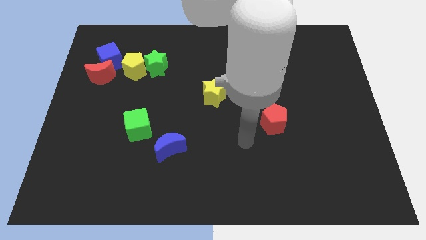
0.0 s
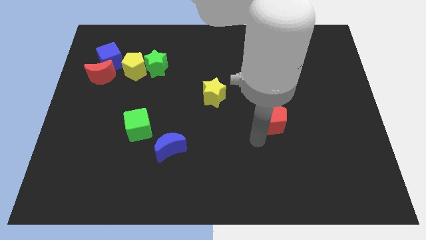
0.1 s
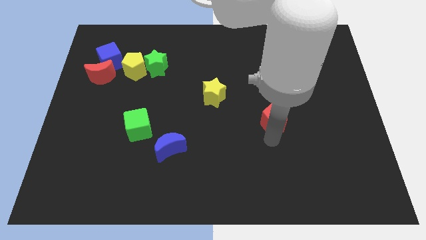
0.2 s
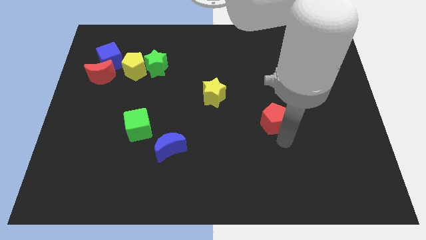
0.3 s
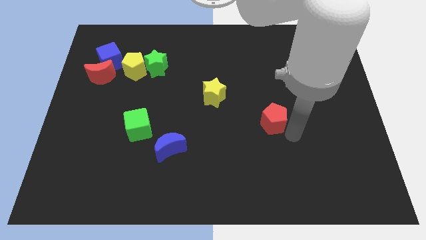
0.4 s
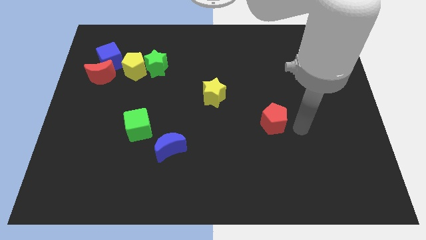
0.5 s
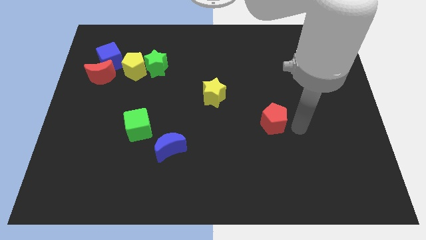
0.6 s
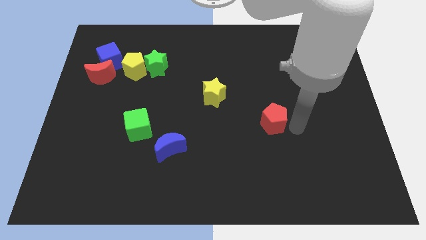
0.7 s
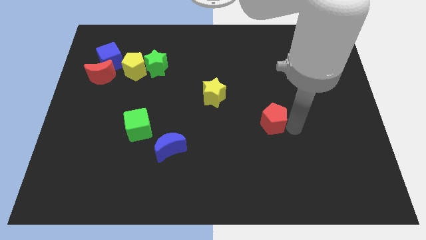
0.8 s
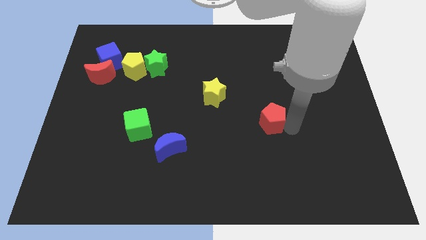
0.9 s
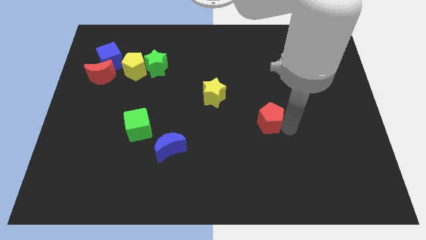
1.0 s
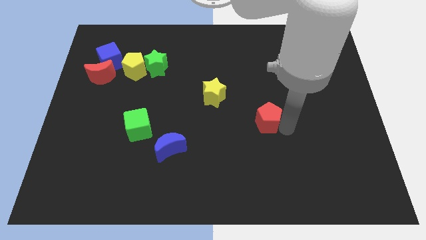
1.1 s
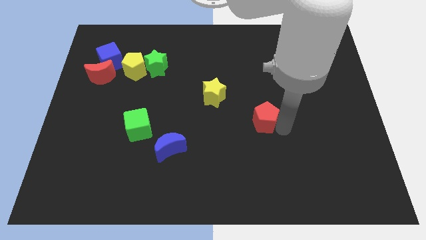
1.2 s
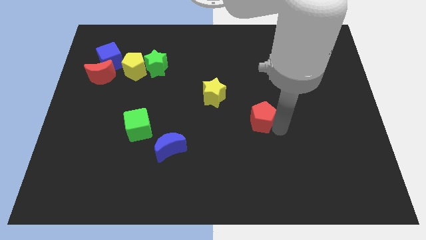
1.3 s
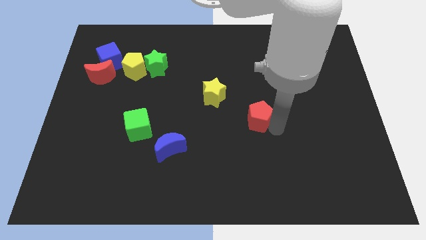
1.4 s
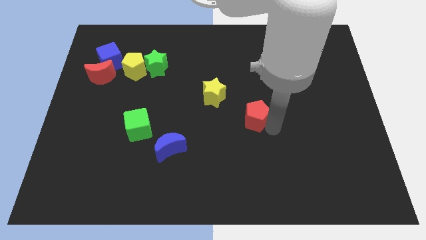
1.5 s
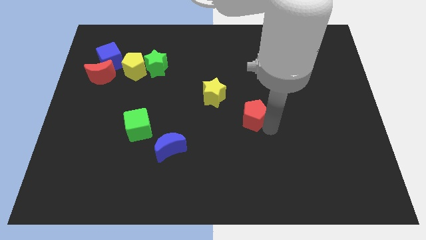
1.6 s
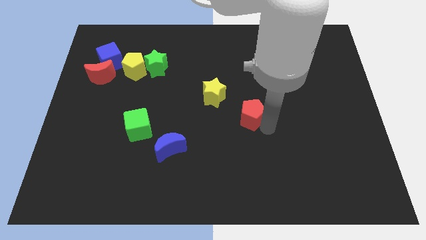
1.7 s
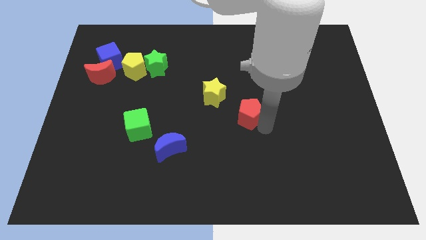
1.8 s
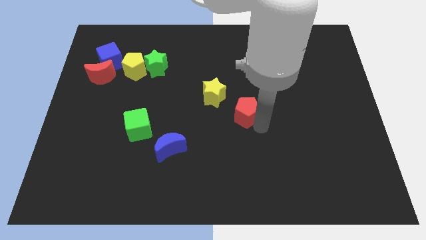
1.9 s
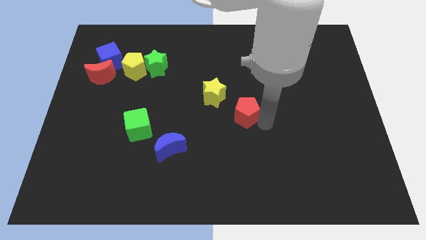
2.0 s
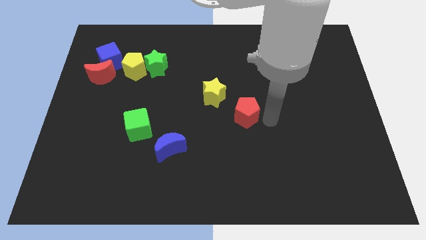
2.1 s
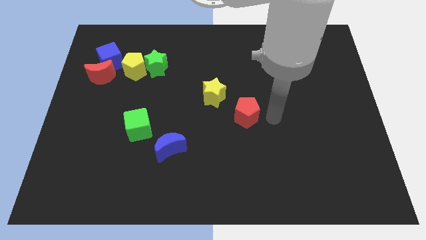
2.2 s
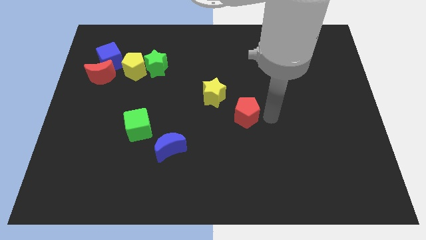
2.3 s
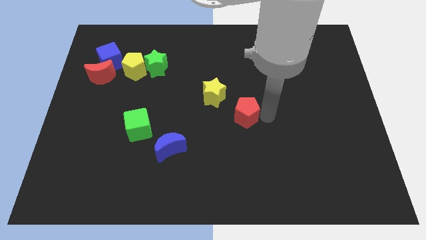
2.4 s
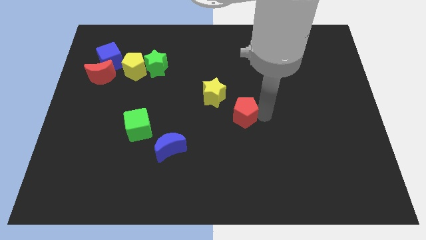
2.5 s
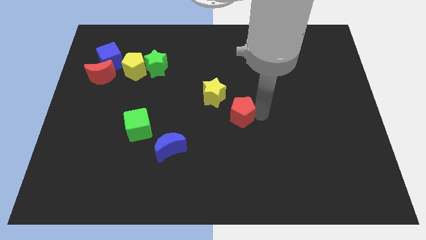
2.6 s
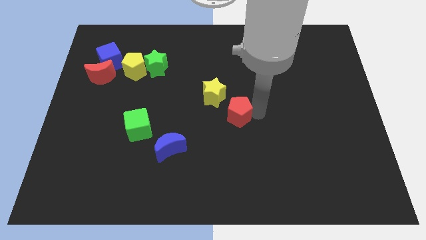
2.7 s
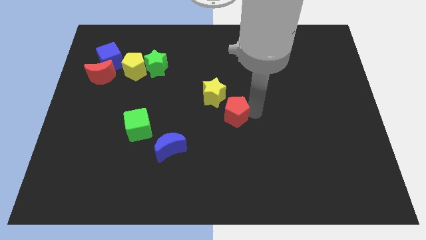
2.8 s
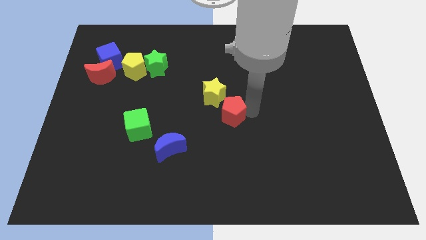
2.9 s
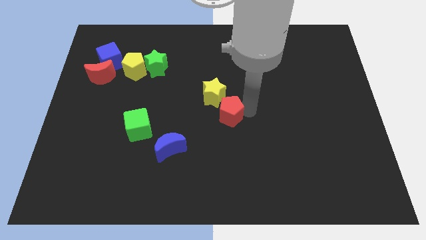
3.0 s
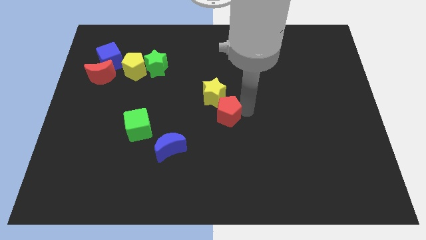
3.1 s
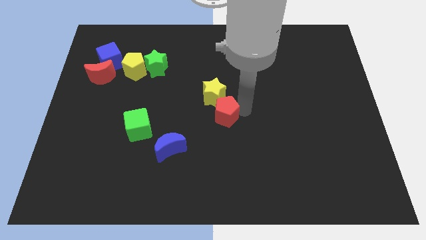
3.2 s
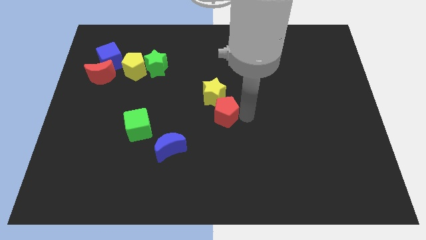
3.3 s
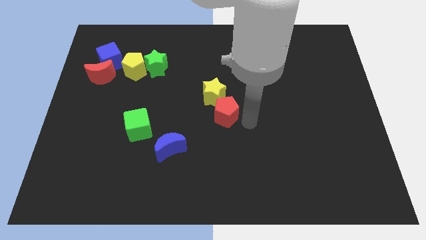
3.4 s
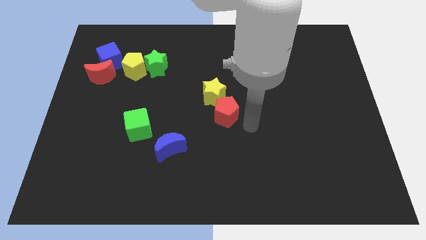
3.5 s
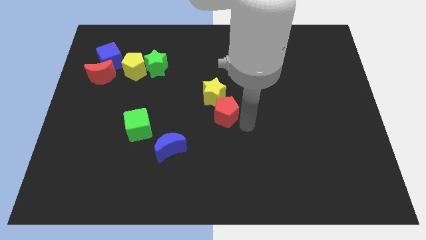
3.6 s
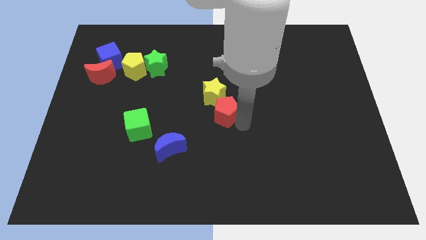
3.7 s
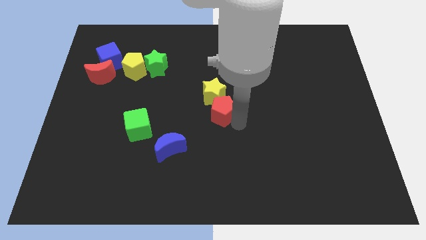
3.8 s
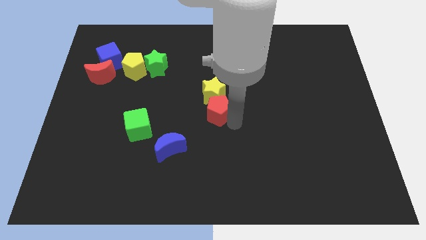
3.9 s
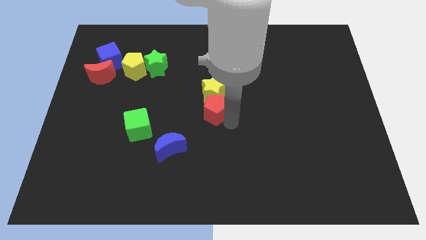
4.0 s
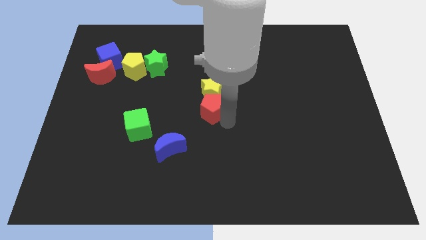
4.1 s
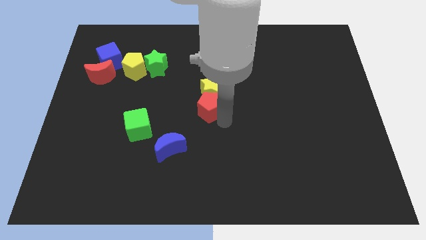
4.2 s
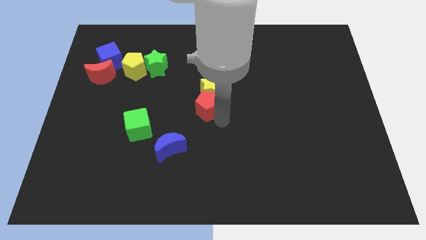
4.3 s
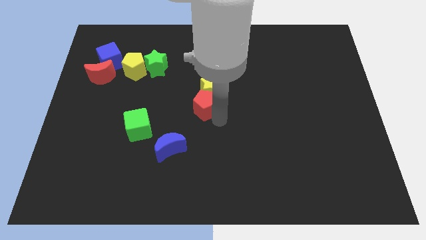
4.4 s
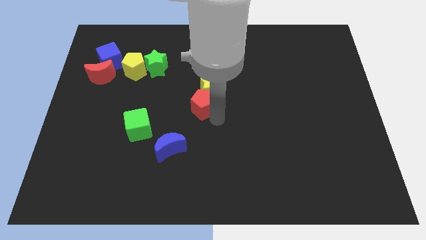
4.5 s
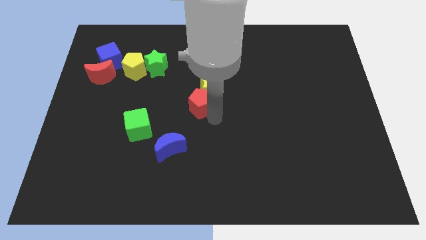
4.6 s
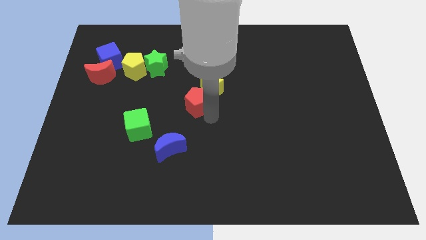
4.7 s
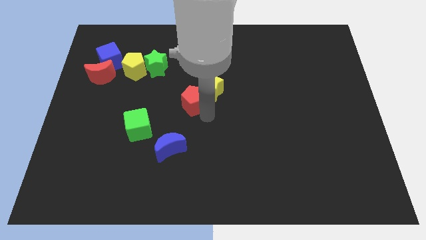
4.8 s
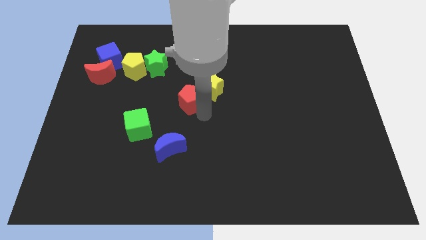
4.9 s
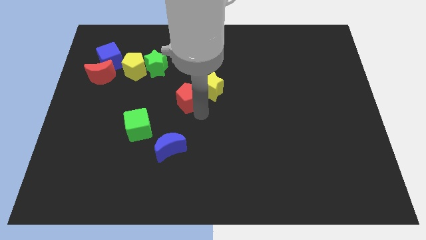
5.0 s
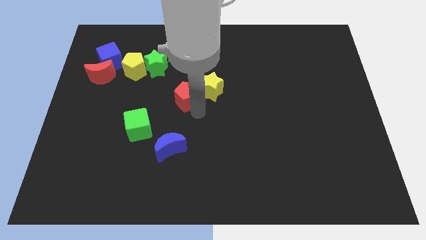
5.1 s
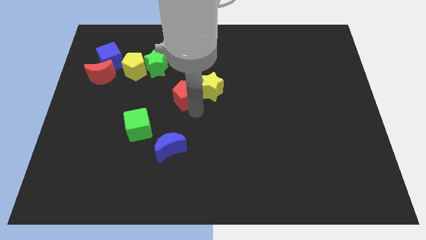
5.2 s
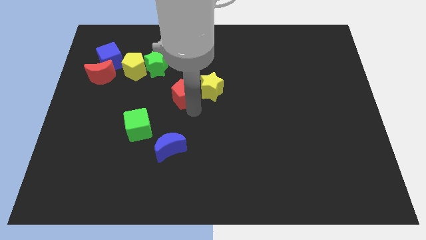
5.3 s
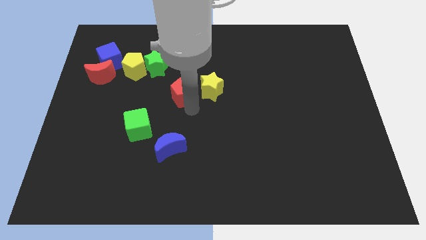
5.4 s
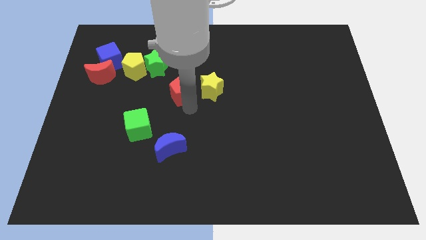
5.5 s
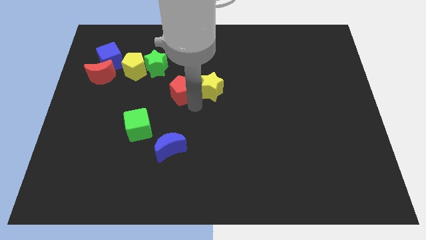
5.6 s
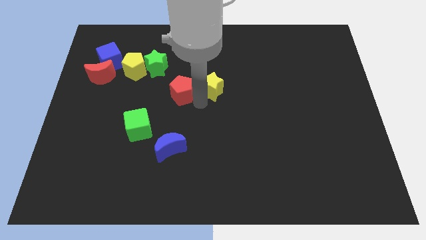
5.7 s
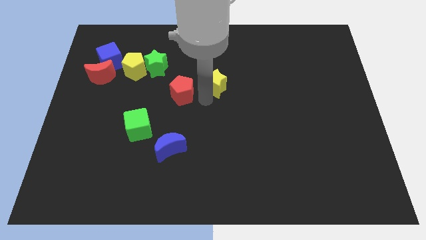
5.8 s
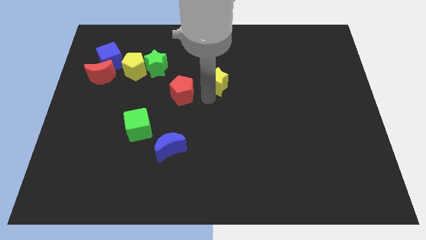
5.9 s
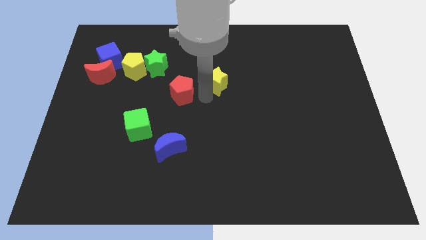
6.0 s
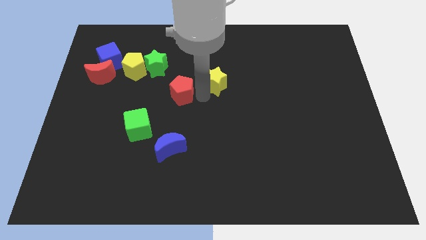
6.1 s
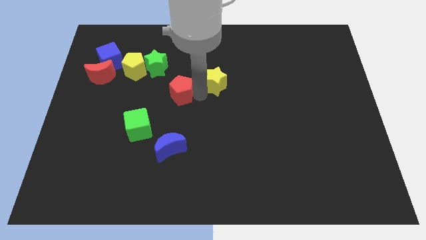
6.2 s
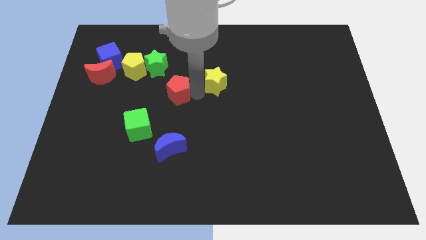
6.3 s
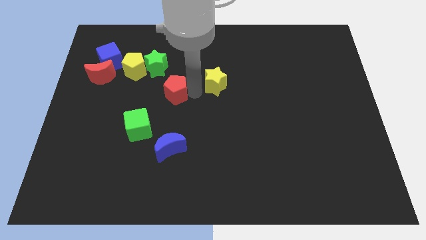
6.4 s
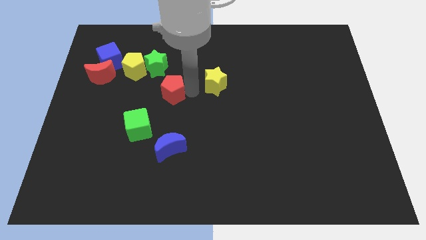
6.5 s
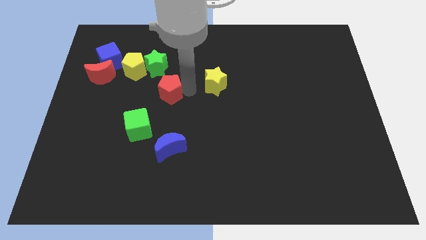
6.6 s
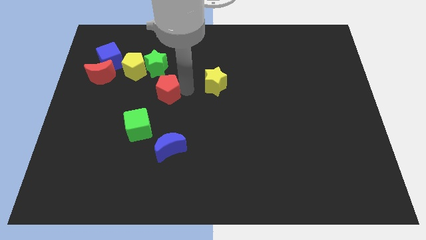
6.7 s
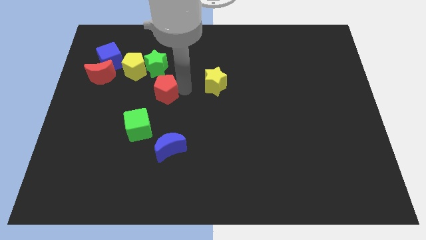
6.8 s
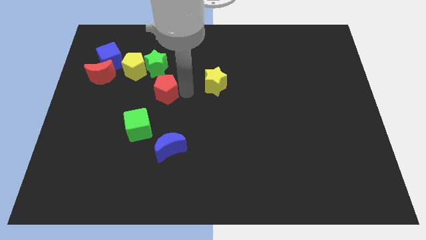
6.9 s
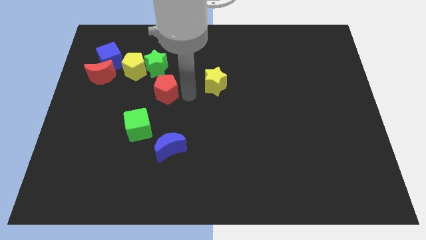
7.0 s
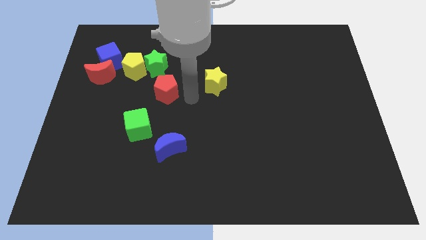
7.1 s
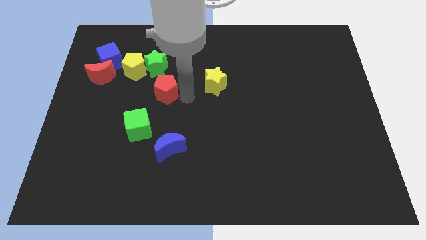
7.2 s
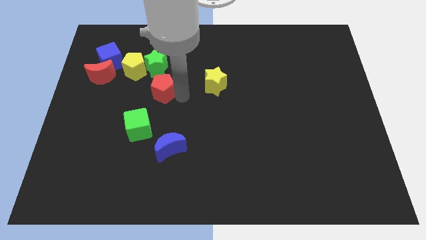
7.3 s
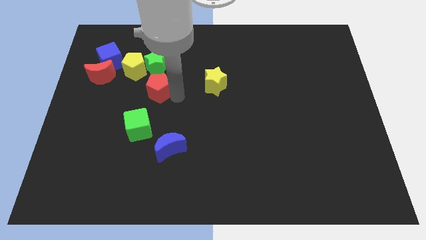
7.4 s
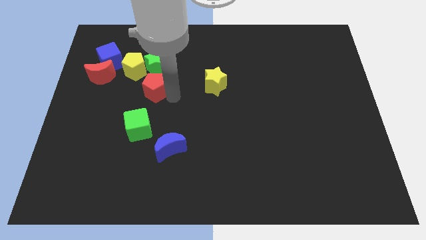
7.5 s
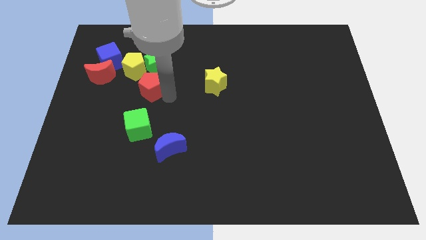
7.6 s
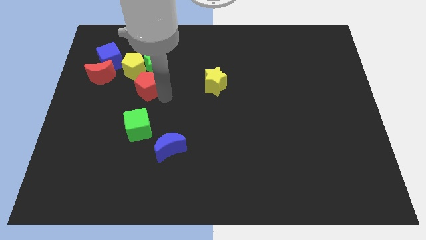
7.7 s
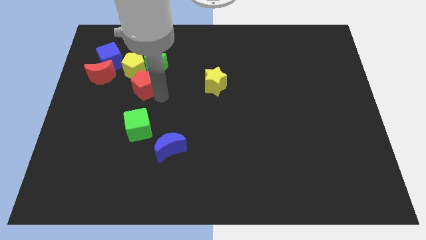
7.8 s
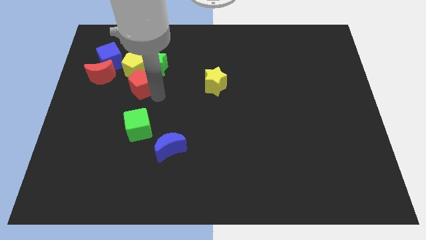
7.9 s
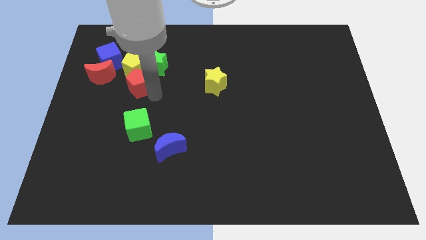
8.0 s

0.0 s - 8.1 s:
push the red pentagon close to the yellow pentagon

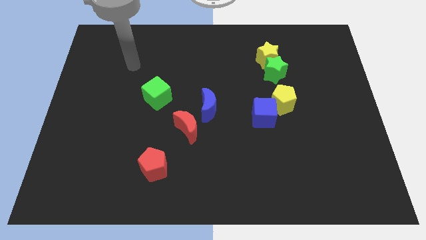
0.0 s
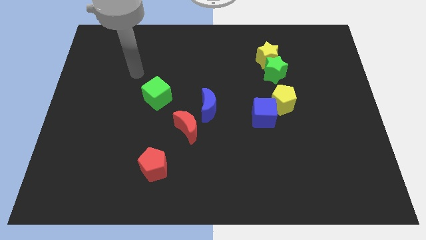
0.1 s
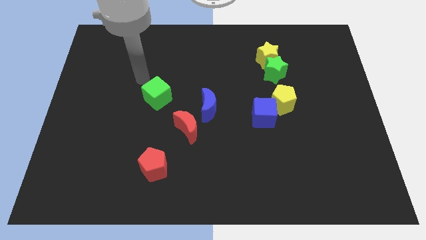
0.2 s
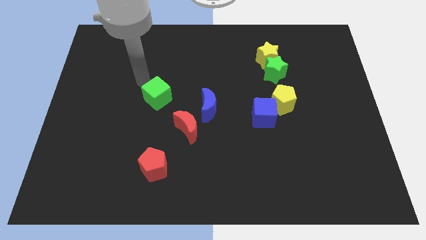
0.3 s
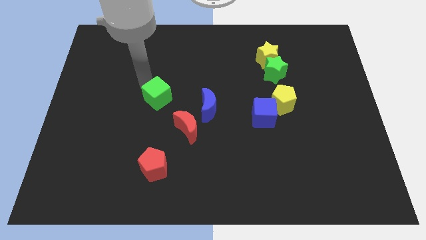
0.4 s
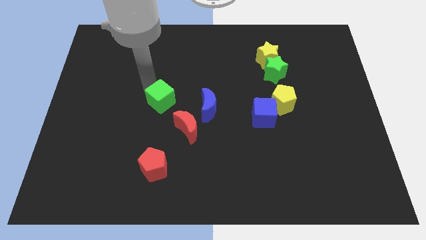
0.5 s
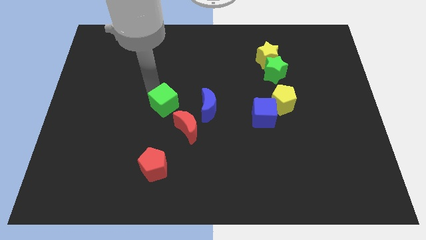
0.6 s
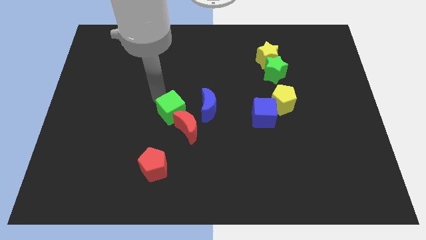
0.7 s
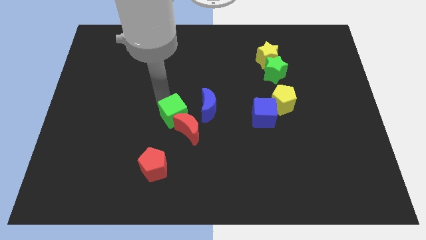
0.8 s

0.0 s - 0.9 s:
move the green cube close to the red moon
